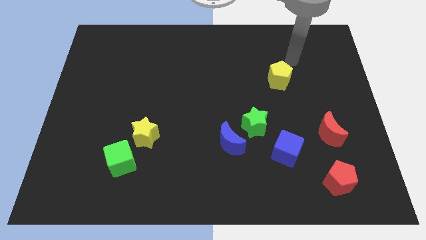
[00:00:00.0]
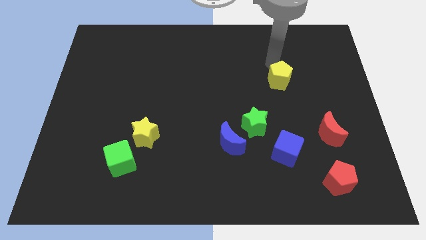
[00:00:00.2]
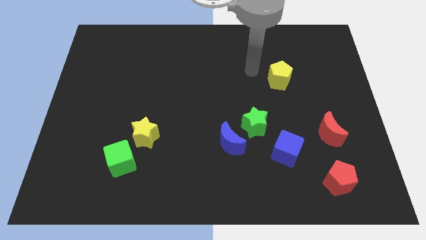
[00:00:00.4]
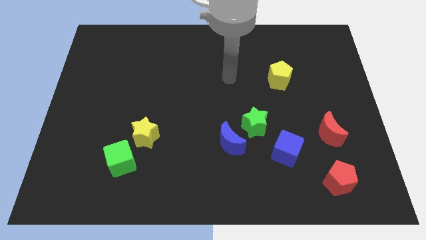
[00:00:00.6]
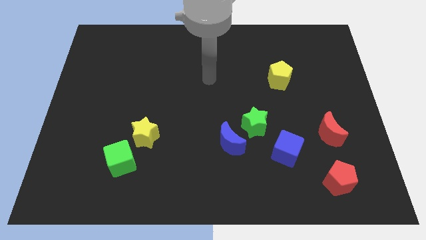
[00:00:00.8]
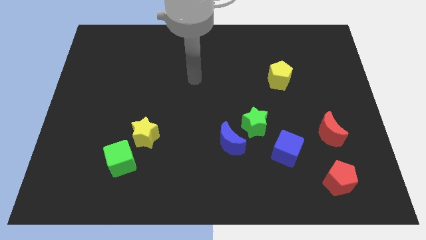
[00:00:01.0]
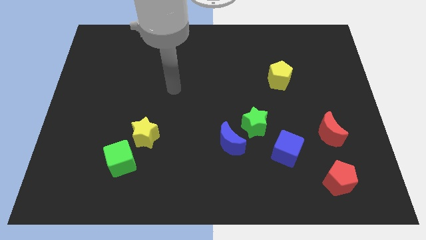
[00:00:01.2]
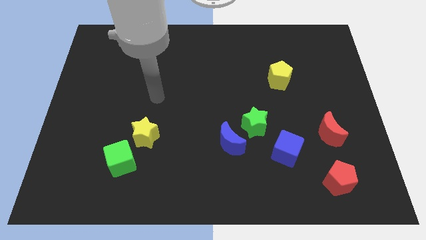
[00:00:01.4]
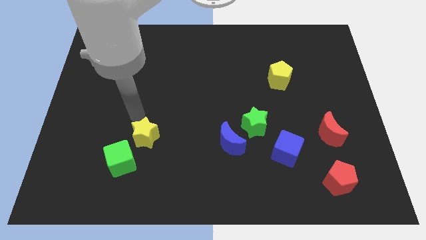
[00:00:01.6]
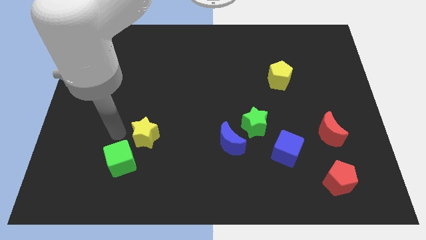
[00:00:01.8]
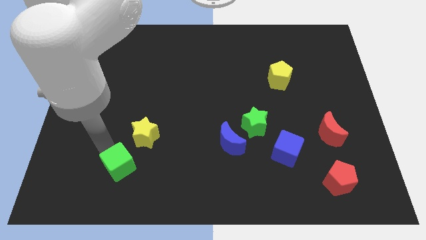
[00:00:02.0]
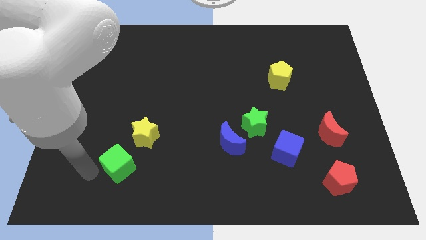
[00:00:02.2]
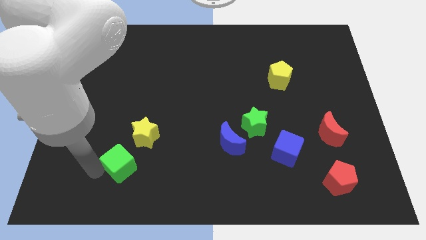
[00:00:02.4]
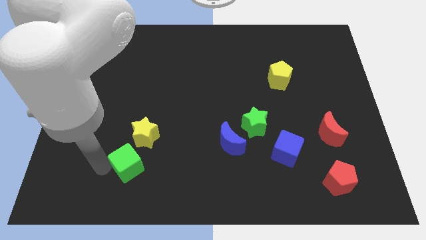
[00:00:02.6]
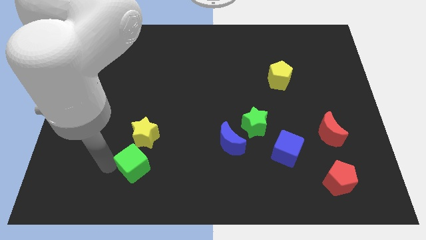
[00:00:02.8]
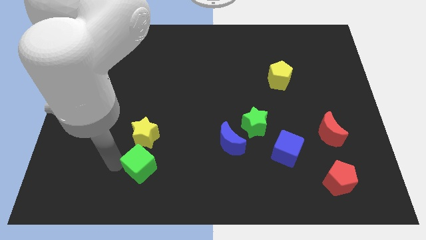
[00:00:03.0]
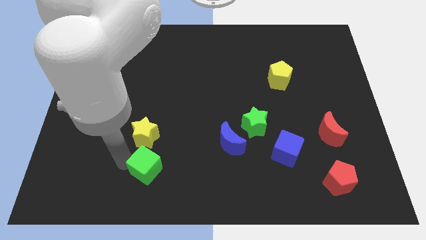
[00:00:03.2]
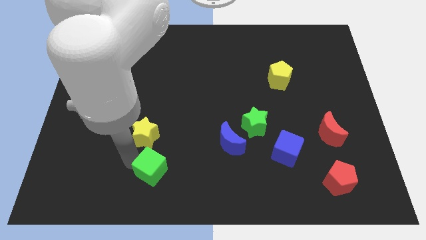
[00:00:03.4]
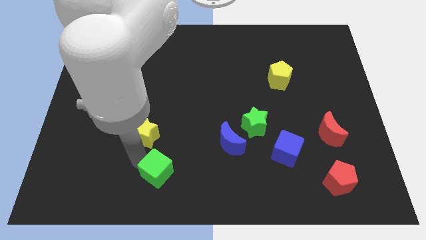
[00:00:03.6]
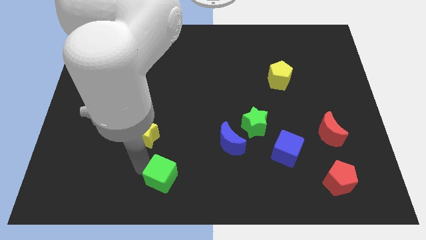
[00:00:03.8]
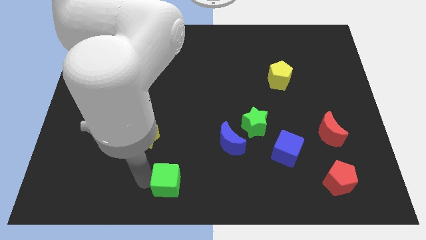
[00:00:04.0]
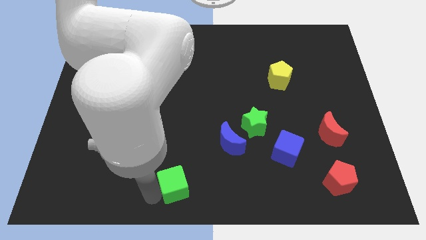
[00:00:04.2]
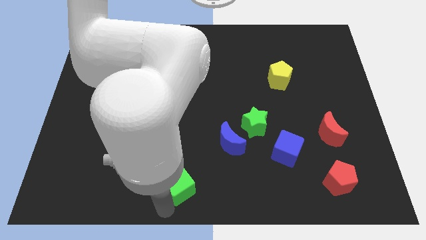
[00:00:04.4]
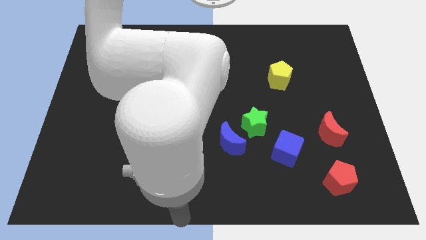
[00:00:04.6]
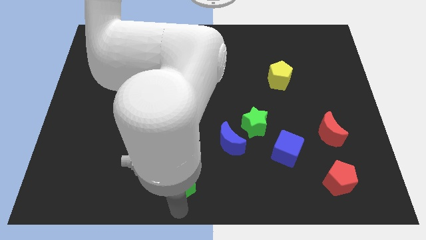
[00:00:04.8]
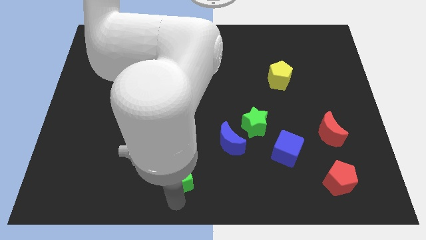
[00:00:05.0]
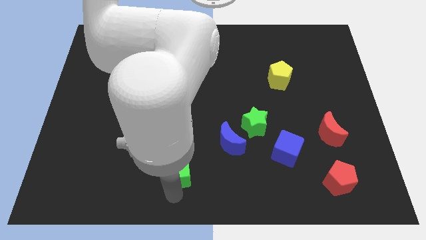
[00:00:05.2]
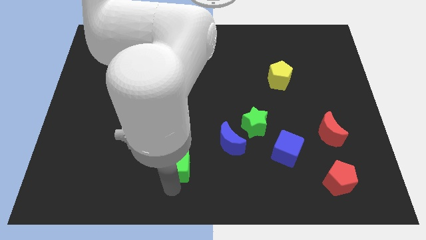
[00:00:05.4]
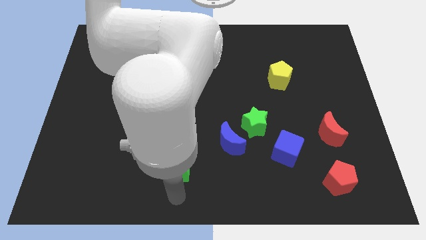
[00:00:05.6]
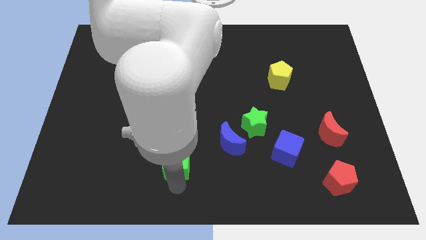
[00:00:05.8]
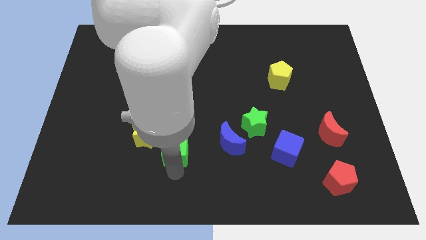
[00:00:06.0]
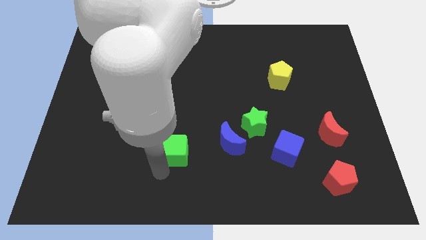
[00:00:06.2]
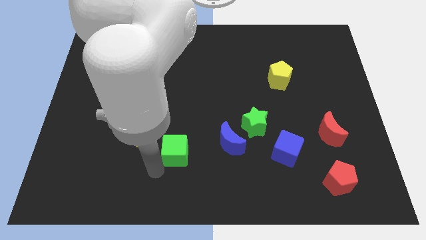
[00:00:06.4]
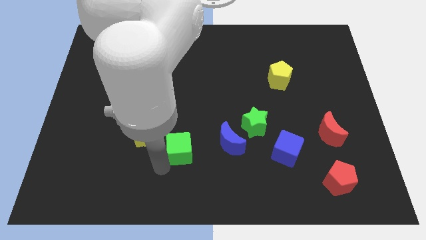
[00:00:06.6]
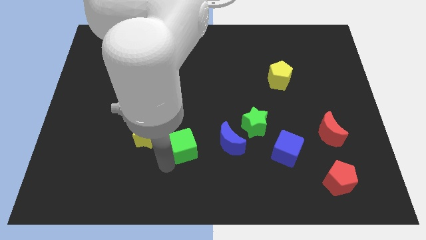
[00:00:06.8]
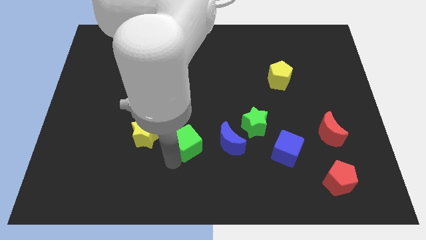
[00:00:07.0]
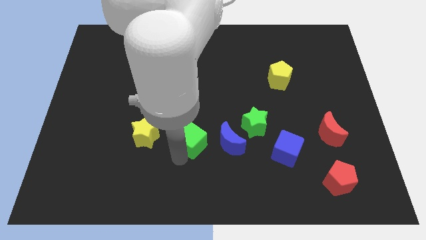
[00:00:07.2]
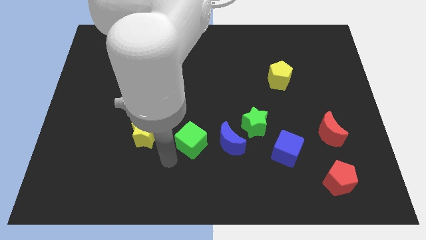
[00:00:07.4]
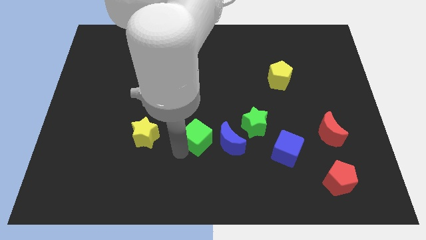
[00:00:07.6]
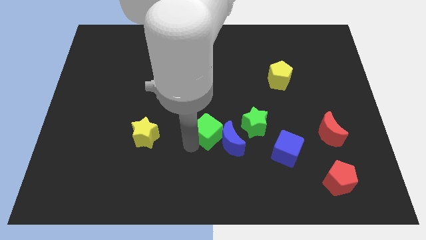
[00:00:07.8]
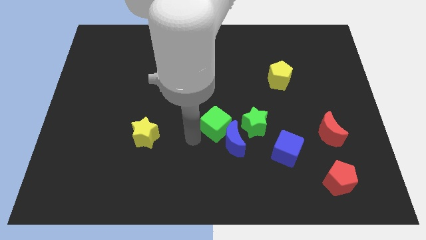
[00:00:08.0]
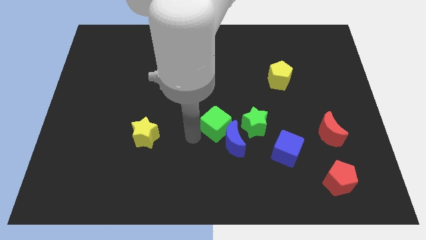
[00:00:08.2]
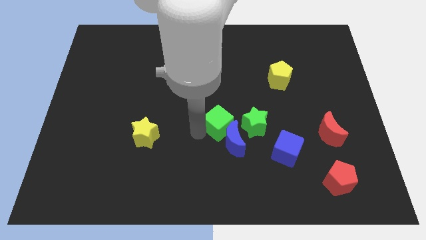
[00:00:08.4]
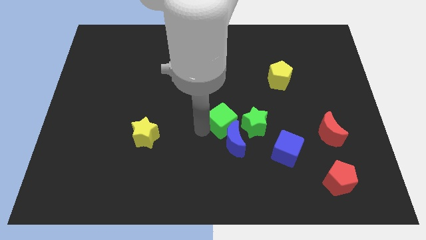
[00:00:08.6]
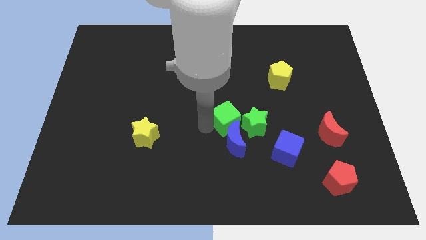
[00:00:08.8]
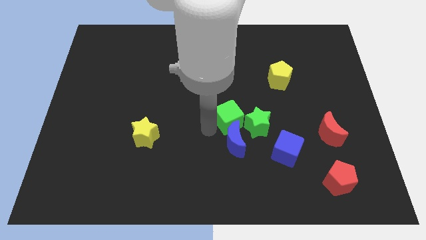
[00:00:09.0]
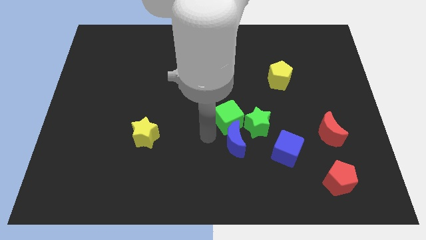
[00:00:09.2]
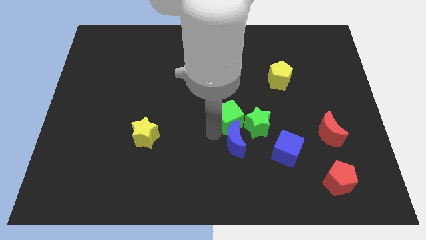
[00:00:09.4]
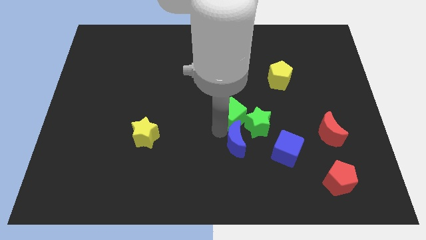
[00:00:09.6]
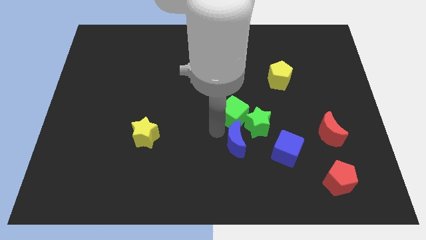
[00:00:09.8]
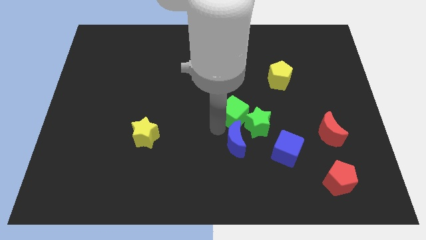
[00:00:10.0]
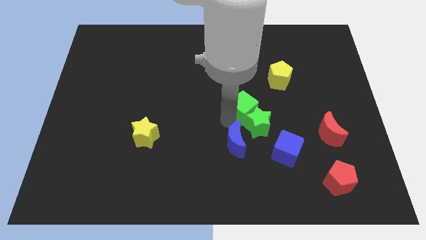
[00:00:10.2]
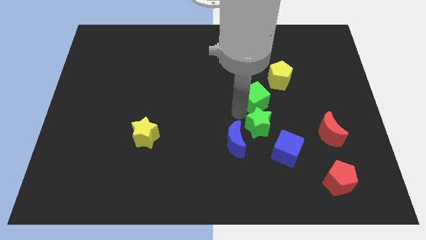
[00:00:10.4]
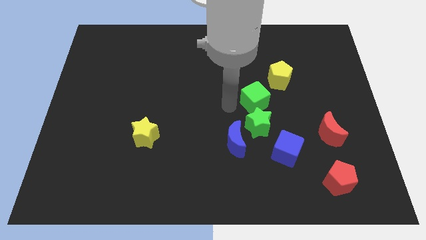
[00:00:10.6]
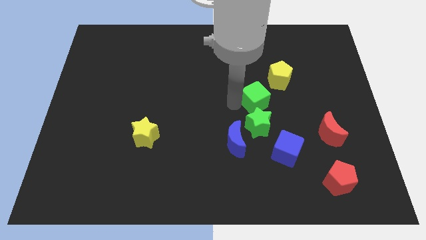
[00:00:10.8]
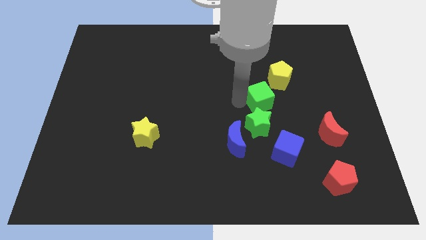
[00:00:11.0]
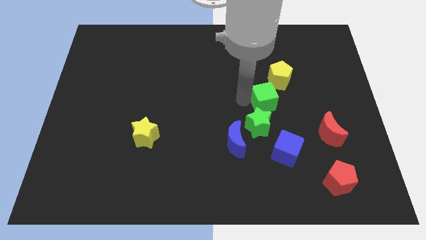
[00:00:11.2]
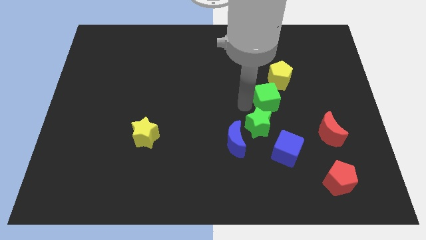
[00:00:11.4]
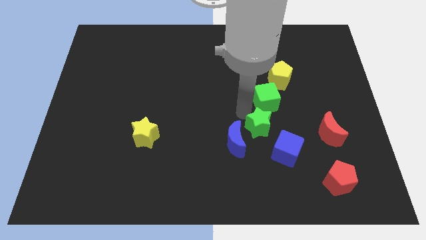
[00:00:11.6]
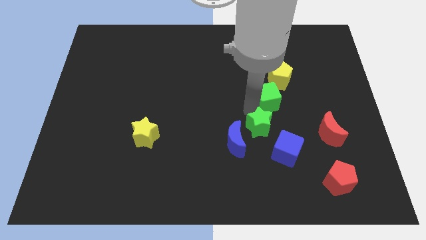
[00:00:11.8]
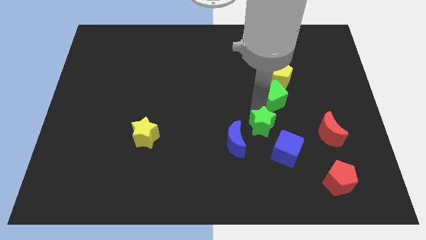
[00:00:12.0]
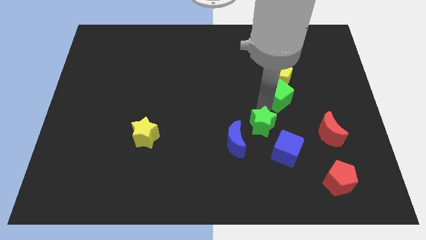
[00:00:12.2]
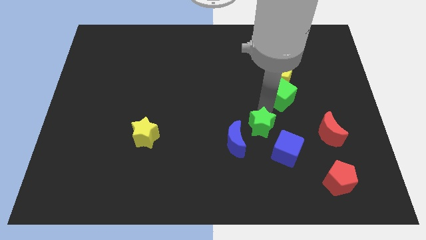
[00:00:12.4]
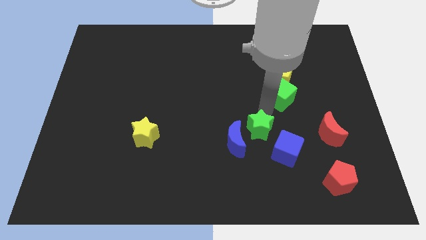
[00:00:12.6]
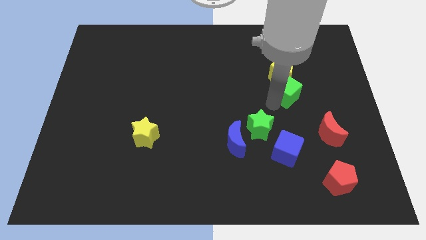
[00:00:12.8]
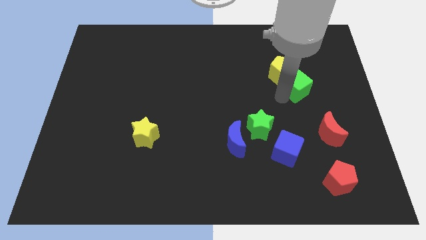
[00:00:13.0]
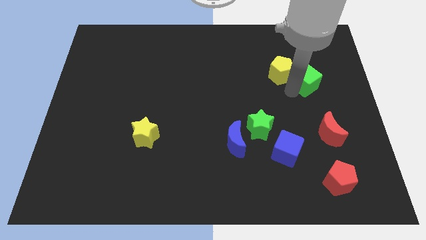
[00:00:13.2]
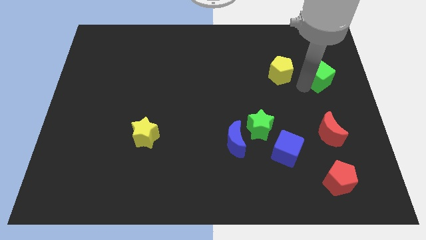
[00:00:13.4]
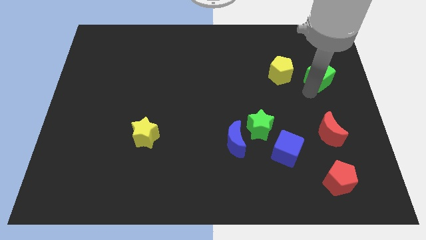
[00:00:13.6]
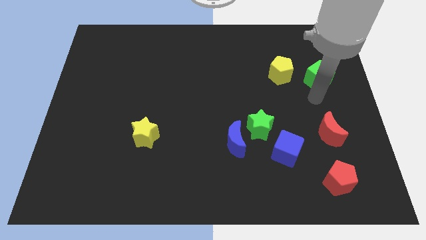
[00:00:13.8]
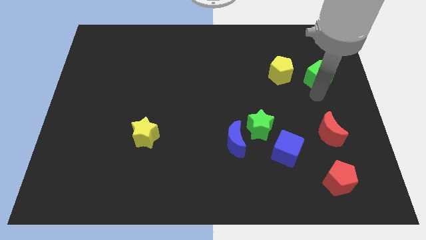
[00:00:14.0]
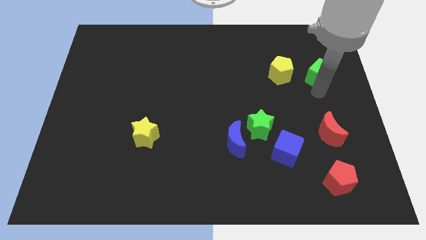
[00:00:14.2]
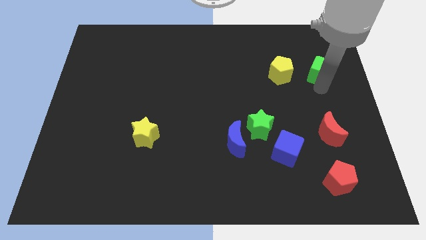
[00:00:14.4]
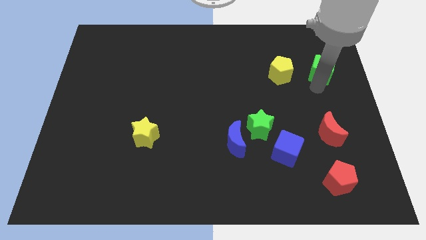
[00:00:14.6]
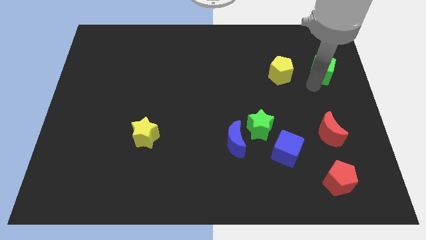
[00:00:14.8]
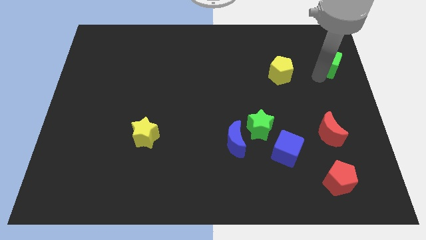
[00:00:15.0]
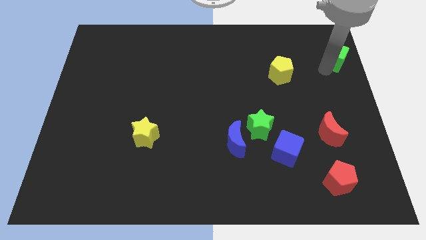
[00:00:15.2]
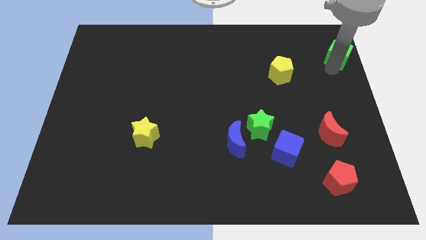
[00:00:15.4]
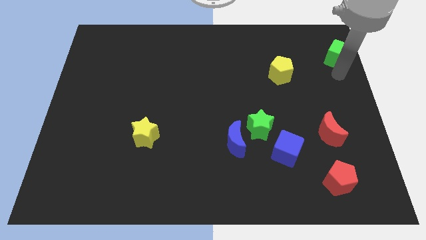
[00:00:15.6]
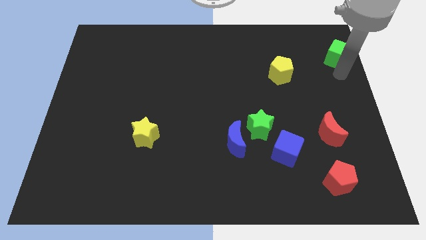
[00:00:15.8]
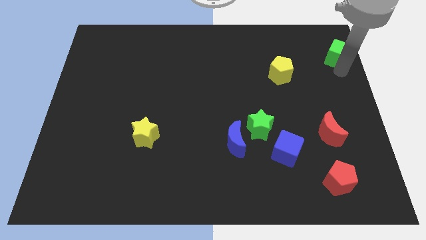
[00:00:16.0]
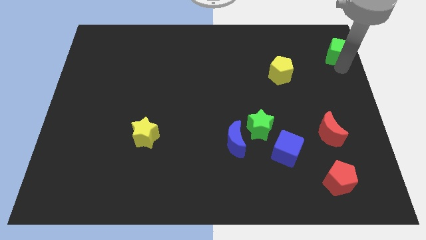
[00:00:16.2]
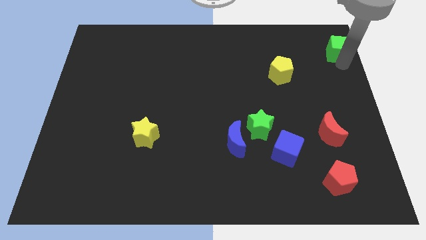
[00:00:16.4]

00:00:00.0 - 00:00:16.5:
slide the green cube to the top right
